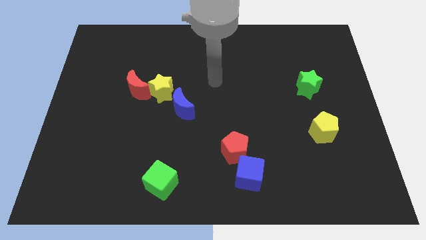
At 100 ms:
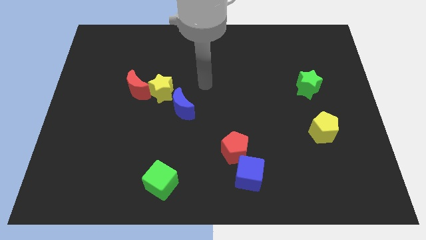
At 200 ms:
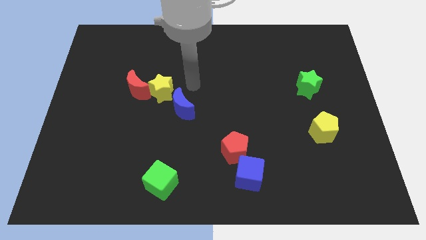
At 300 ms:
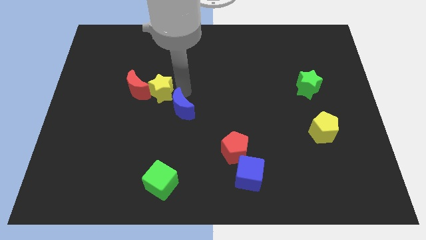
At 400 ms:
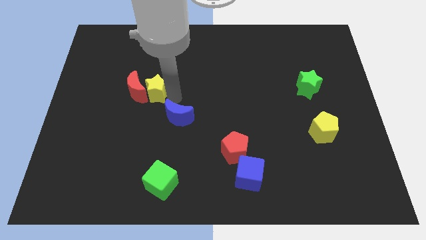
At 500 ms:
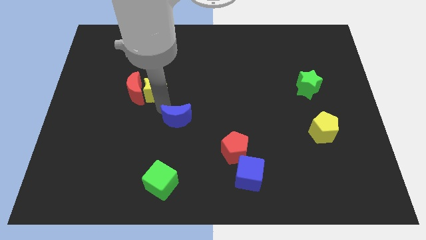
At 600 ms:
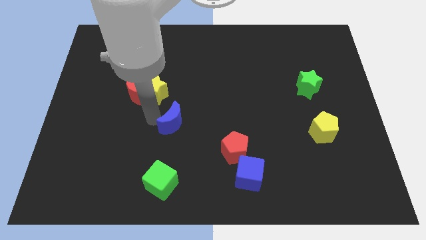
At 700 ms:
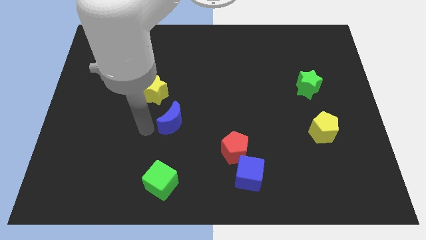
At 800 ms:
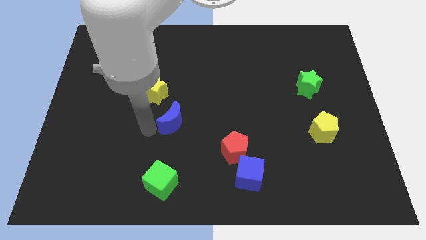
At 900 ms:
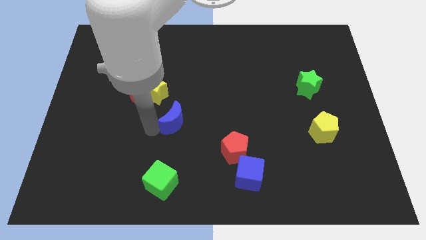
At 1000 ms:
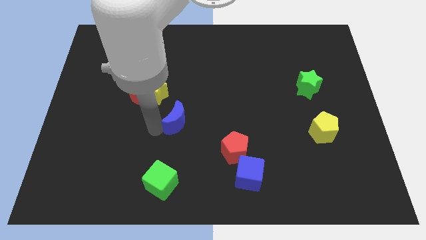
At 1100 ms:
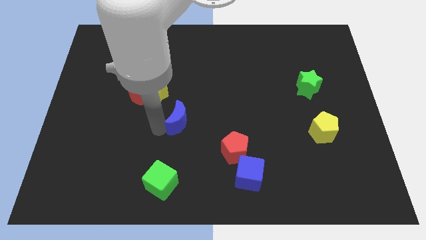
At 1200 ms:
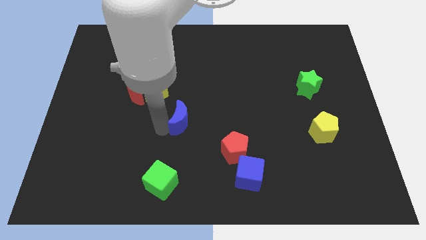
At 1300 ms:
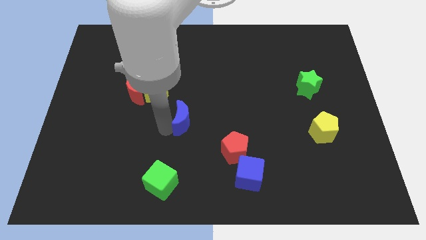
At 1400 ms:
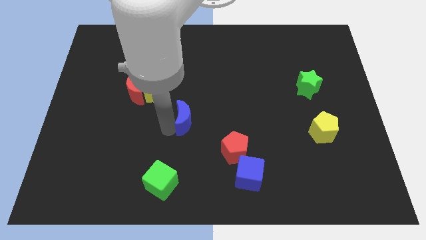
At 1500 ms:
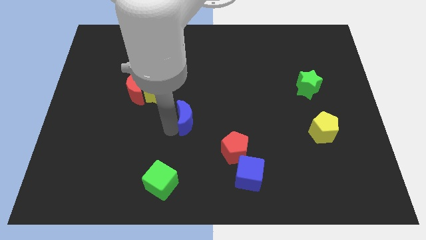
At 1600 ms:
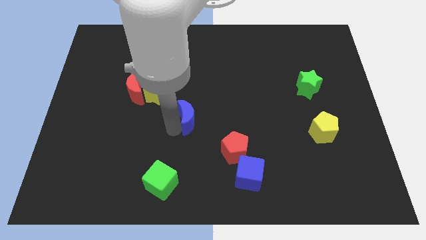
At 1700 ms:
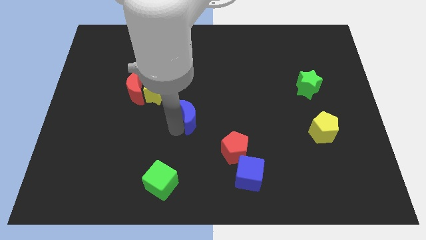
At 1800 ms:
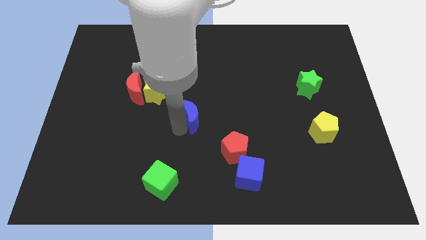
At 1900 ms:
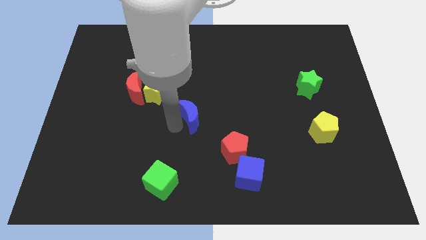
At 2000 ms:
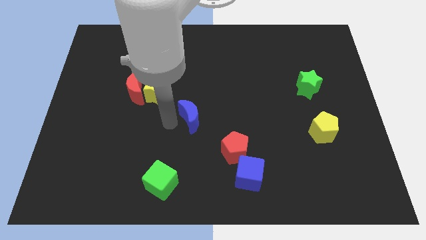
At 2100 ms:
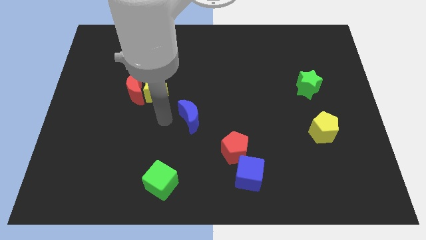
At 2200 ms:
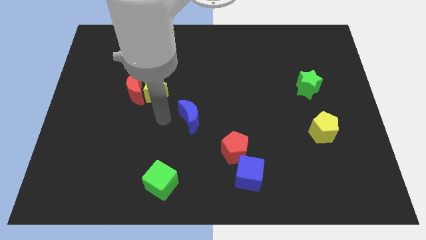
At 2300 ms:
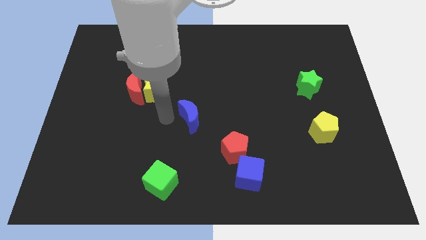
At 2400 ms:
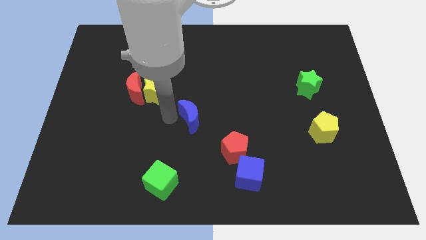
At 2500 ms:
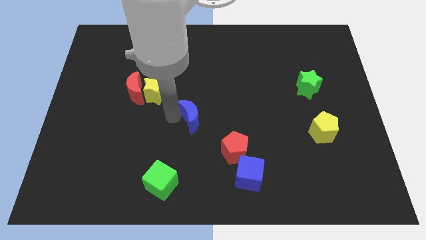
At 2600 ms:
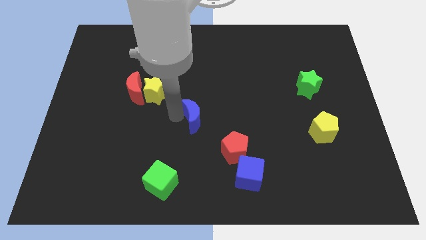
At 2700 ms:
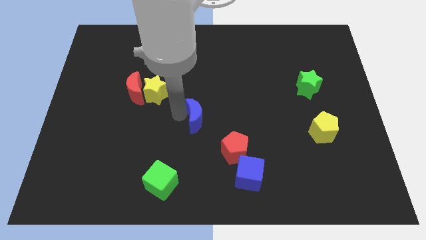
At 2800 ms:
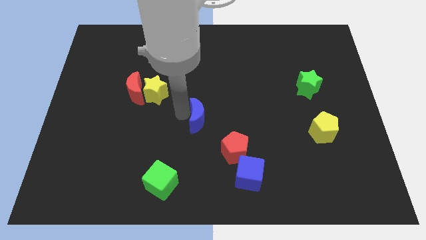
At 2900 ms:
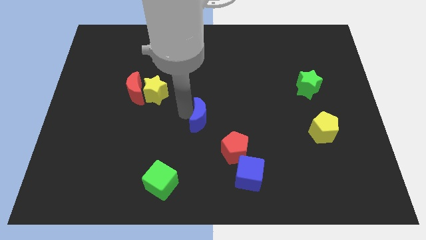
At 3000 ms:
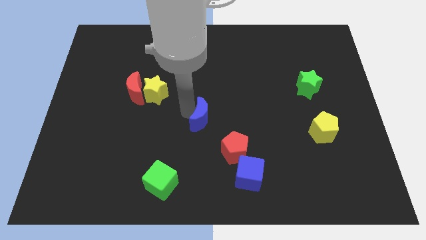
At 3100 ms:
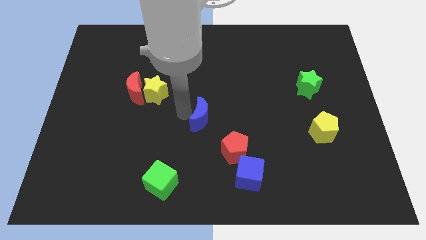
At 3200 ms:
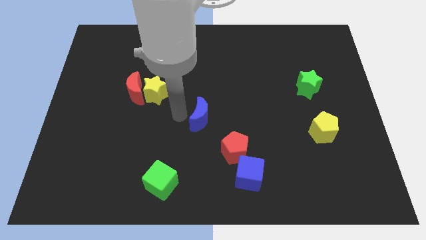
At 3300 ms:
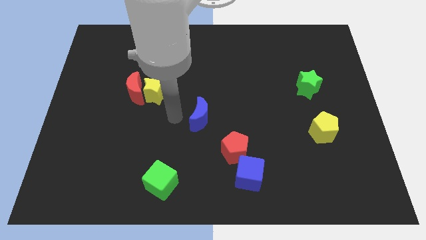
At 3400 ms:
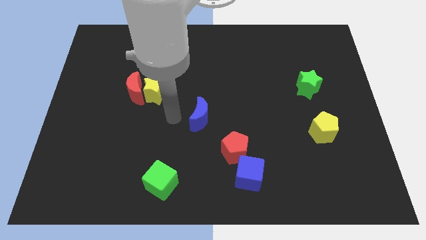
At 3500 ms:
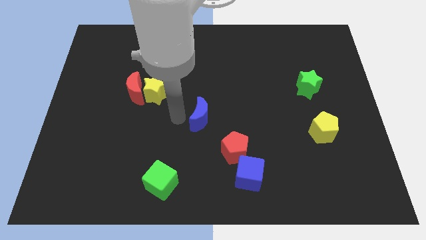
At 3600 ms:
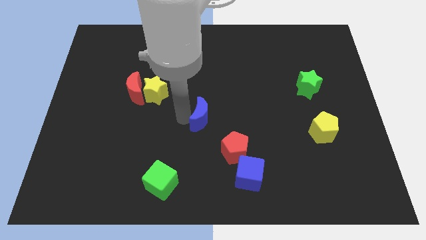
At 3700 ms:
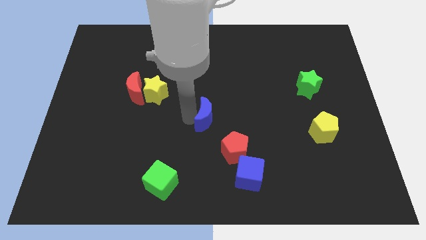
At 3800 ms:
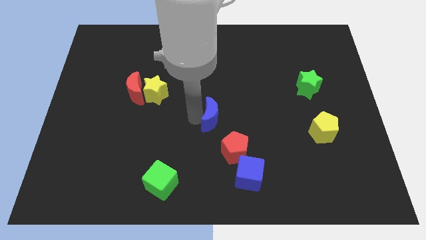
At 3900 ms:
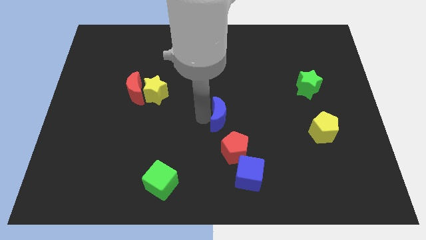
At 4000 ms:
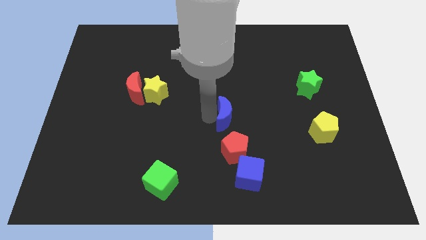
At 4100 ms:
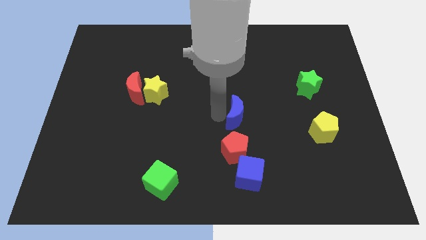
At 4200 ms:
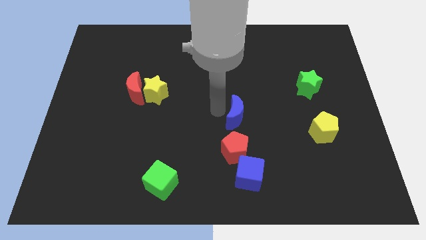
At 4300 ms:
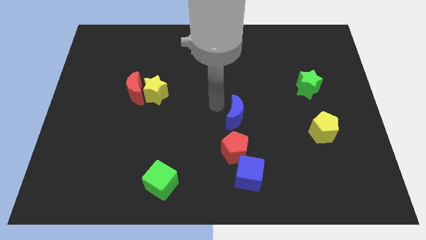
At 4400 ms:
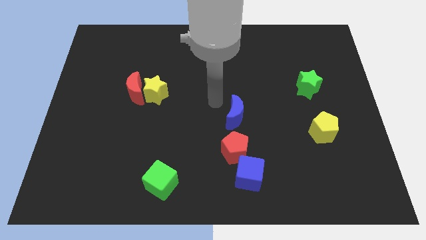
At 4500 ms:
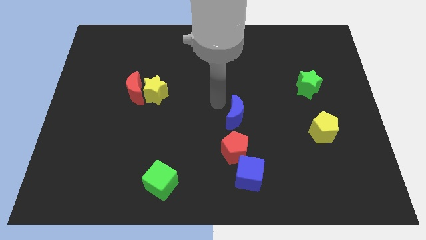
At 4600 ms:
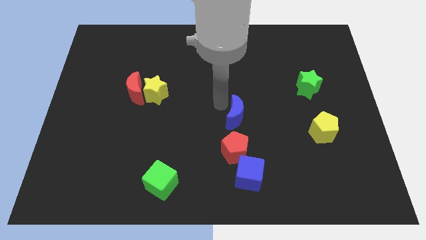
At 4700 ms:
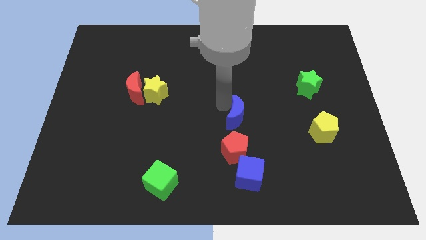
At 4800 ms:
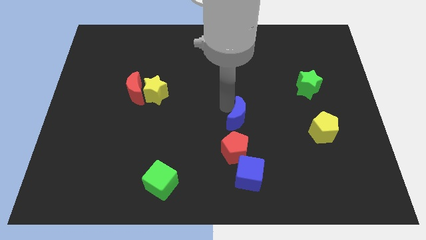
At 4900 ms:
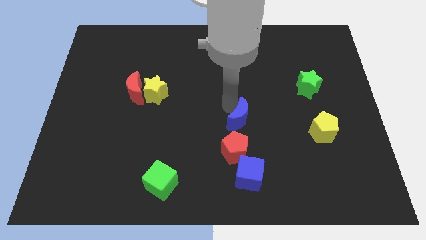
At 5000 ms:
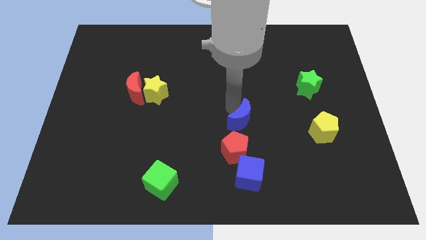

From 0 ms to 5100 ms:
put the blue moon to the top right side of the red pentagon

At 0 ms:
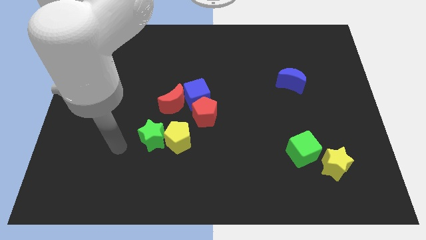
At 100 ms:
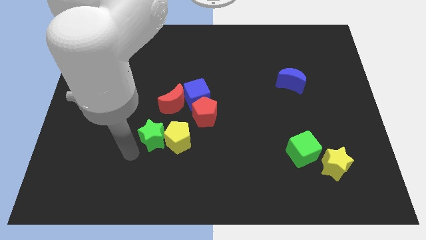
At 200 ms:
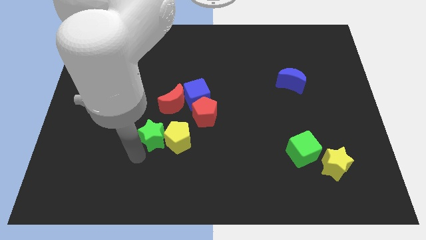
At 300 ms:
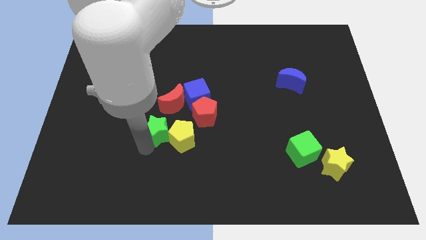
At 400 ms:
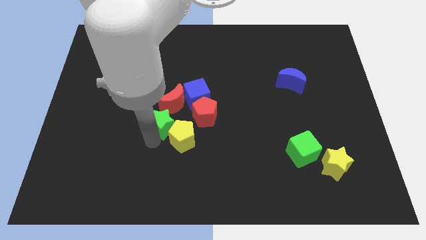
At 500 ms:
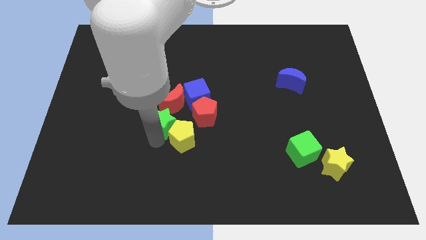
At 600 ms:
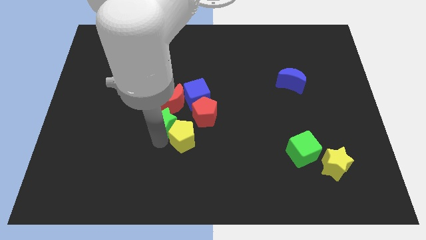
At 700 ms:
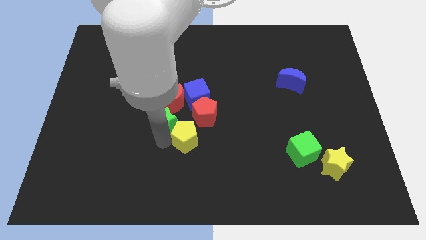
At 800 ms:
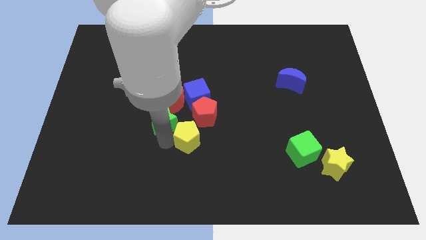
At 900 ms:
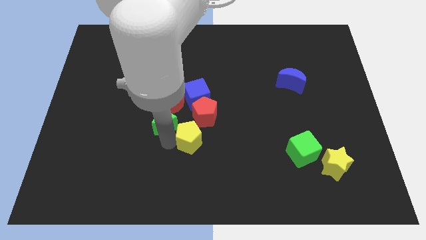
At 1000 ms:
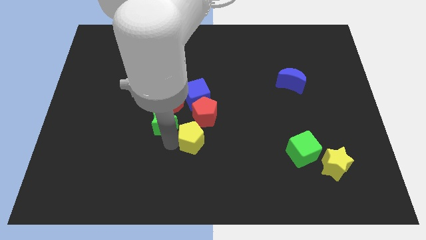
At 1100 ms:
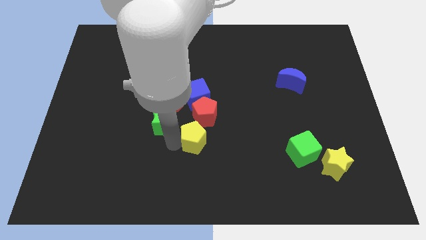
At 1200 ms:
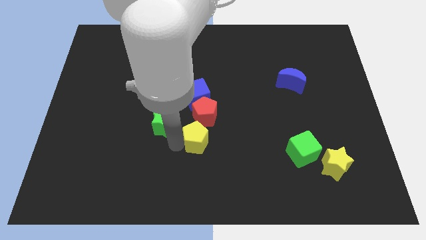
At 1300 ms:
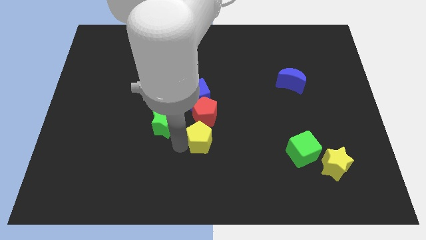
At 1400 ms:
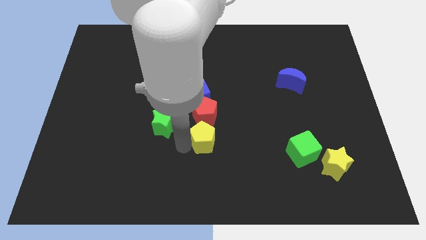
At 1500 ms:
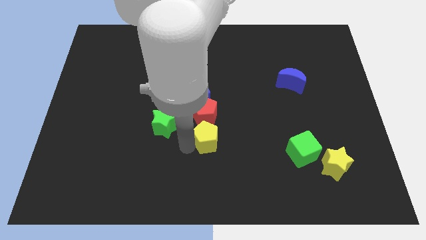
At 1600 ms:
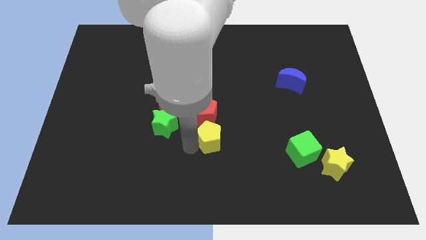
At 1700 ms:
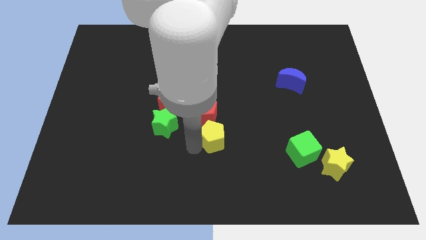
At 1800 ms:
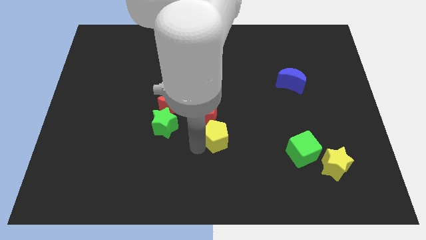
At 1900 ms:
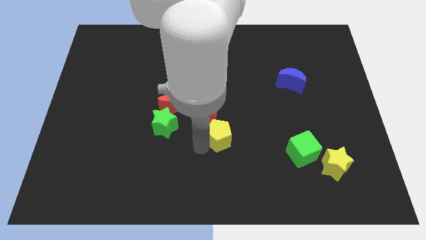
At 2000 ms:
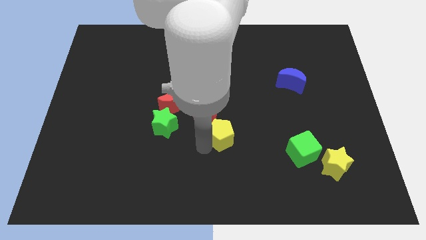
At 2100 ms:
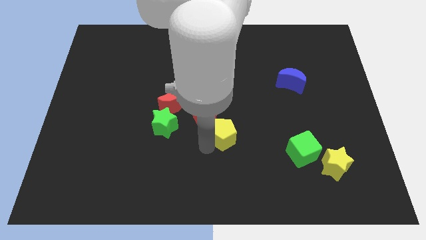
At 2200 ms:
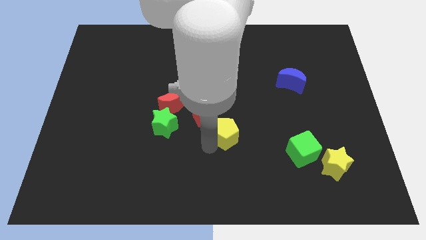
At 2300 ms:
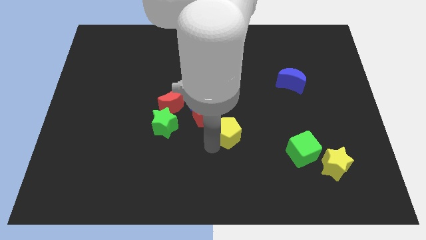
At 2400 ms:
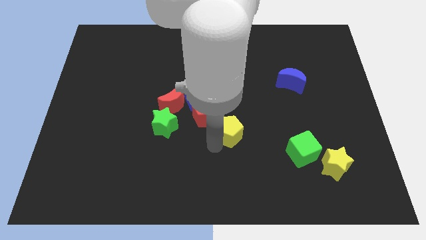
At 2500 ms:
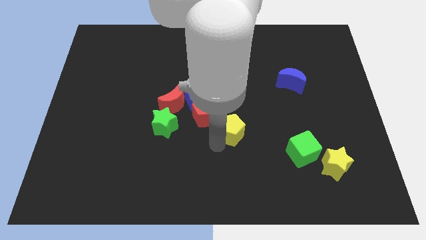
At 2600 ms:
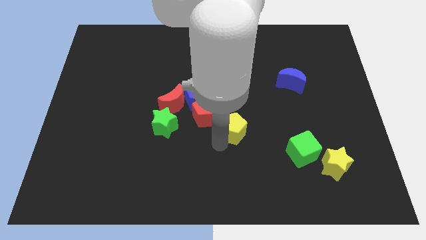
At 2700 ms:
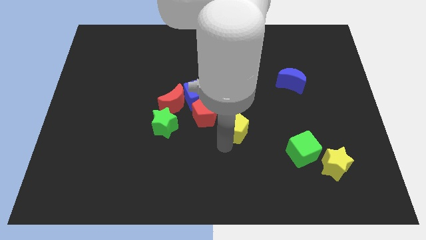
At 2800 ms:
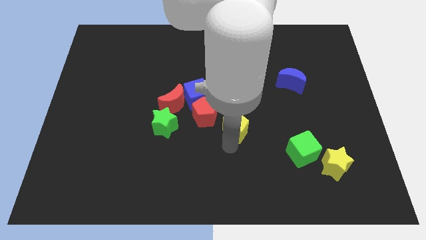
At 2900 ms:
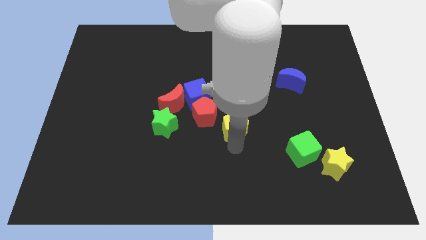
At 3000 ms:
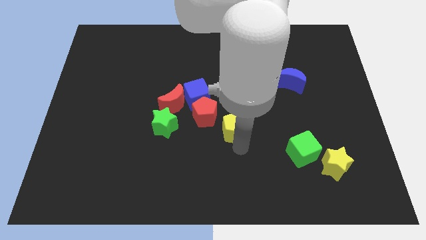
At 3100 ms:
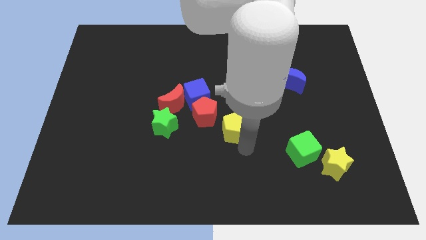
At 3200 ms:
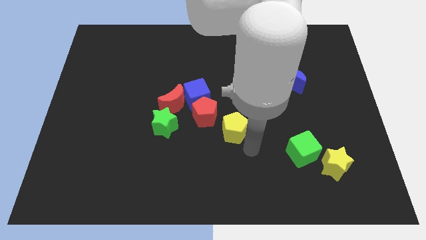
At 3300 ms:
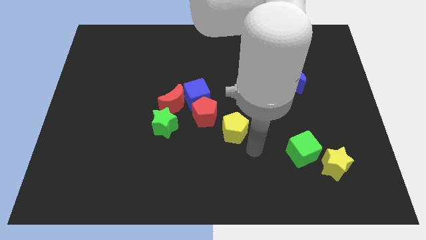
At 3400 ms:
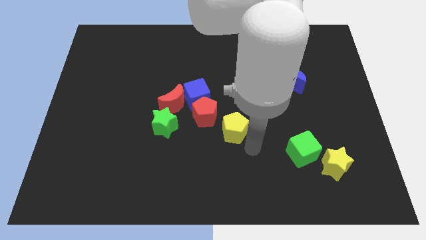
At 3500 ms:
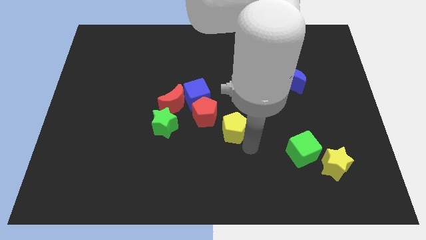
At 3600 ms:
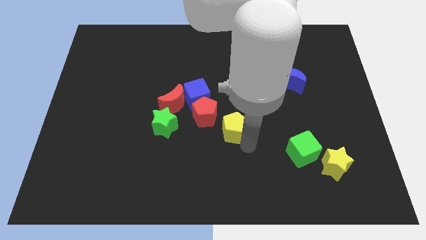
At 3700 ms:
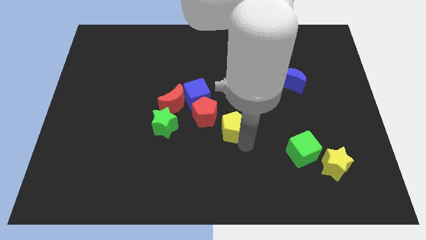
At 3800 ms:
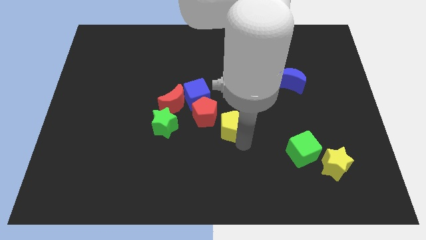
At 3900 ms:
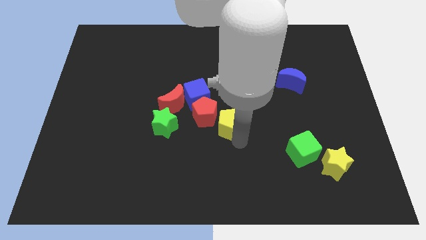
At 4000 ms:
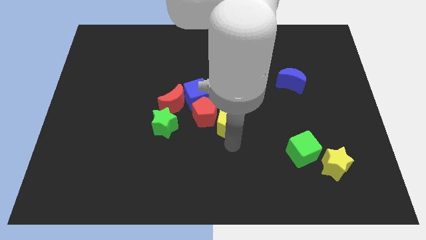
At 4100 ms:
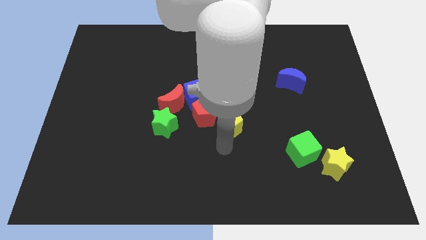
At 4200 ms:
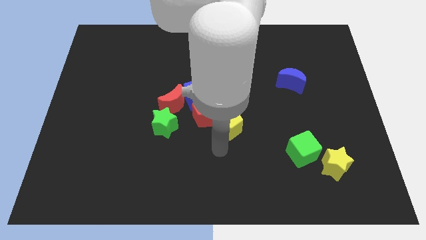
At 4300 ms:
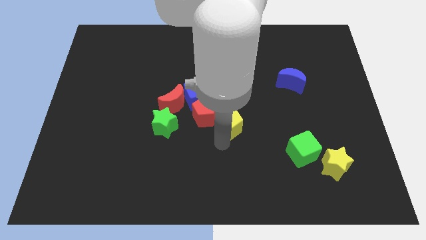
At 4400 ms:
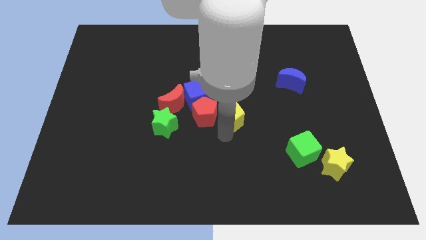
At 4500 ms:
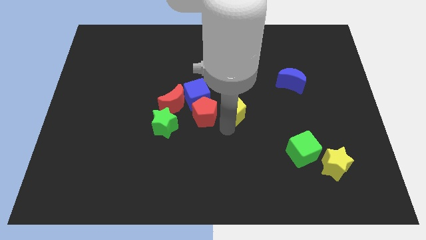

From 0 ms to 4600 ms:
put the yellow pentagon just right of the blue cube
